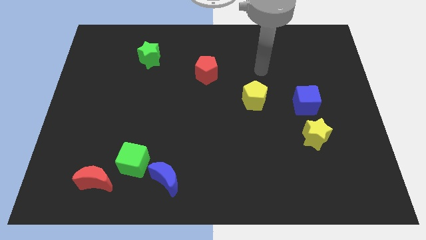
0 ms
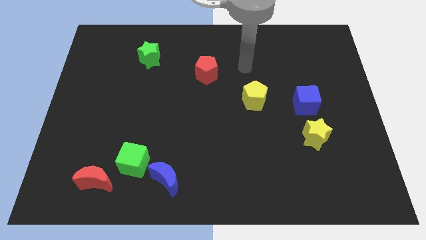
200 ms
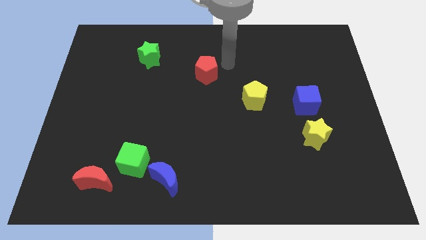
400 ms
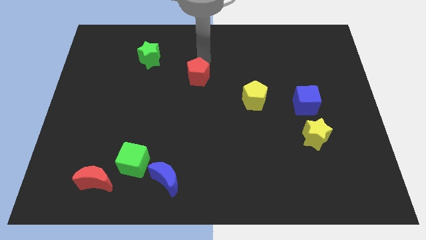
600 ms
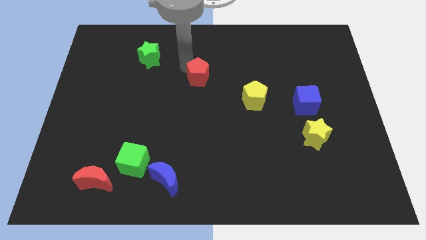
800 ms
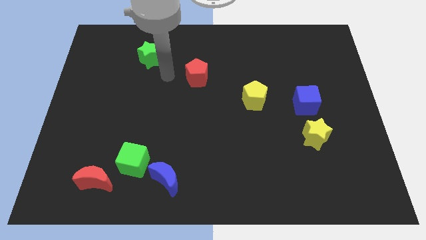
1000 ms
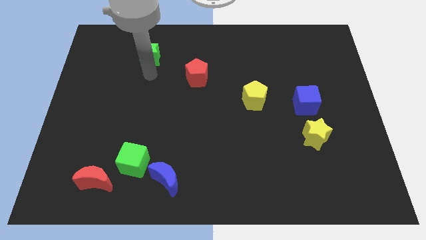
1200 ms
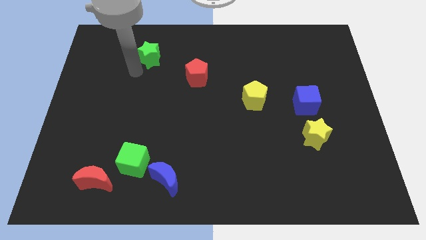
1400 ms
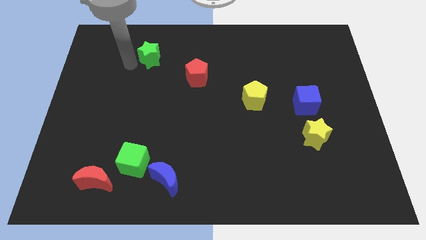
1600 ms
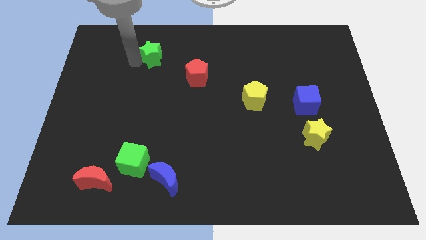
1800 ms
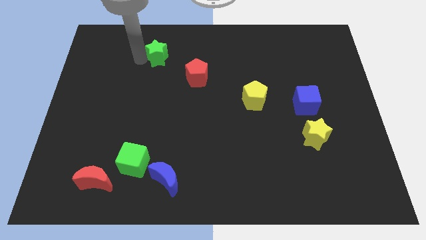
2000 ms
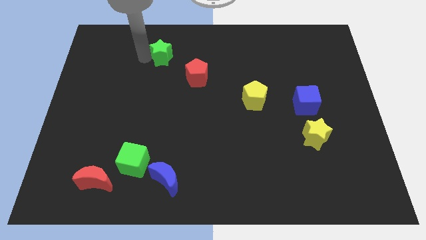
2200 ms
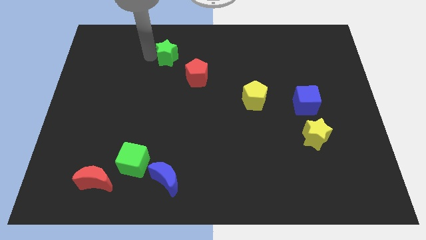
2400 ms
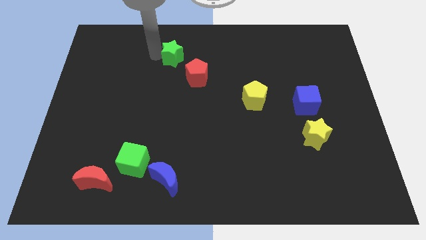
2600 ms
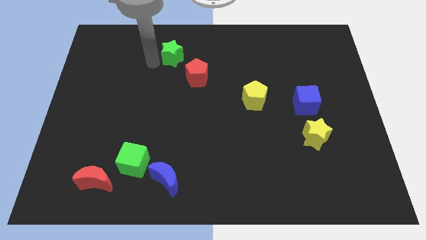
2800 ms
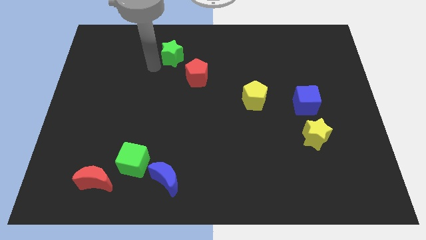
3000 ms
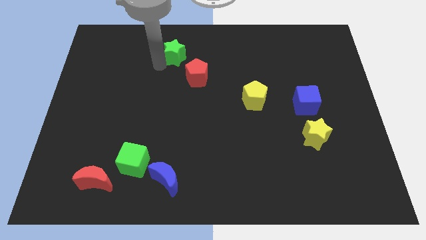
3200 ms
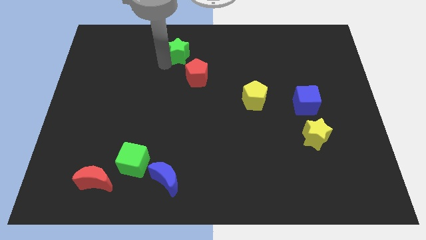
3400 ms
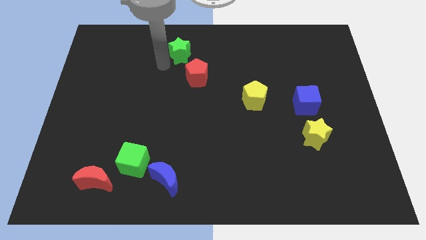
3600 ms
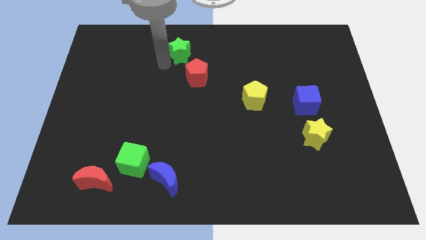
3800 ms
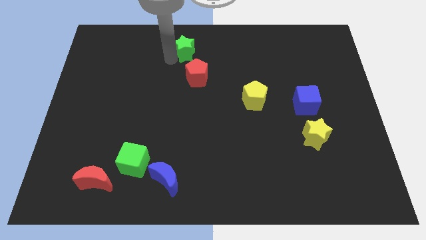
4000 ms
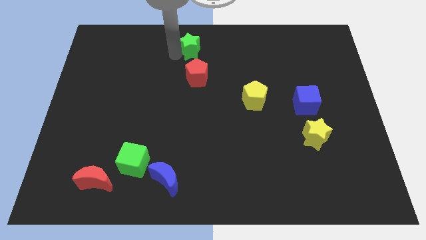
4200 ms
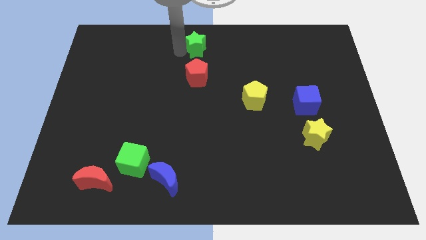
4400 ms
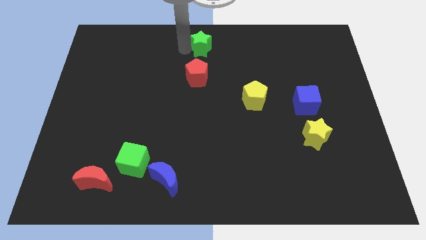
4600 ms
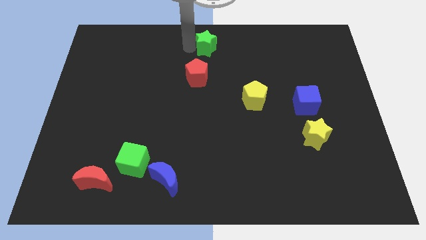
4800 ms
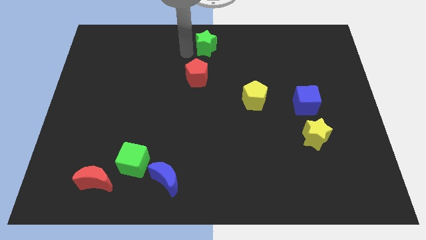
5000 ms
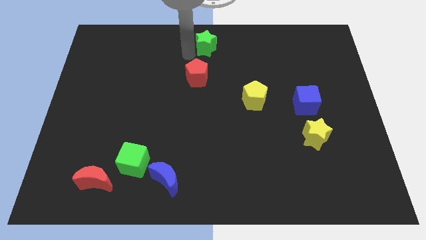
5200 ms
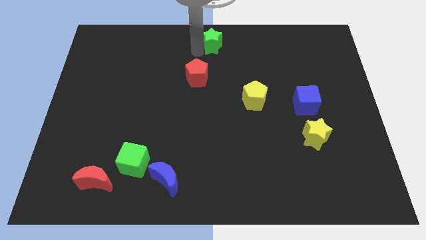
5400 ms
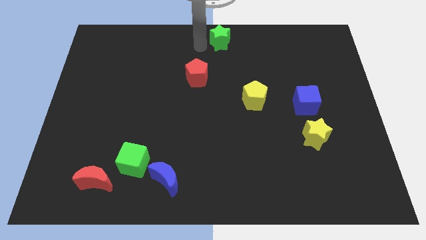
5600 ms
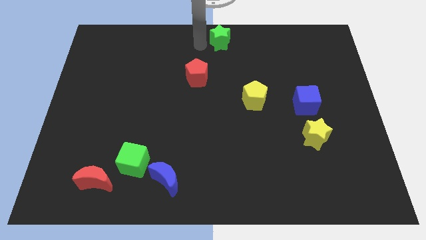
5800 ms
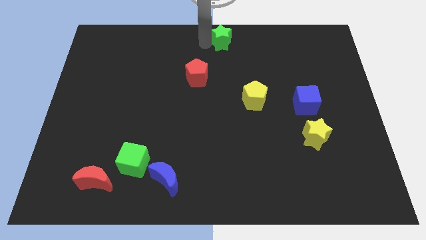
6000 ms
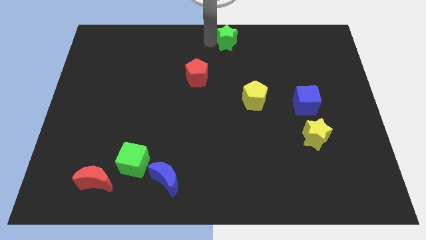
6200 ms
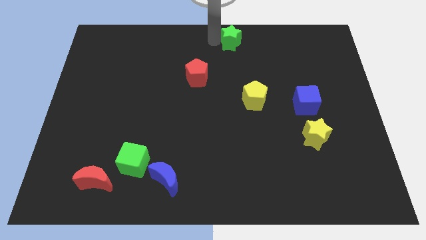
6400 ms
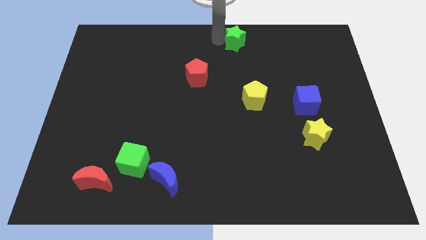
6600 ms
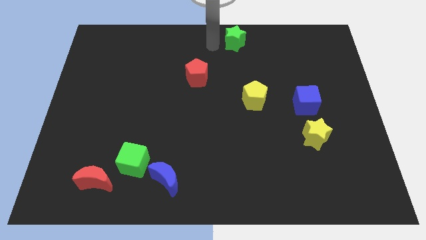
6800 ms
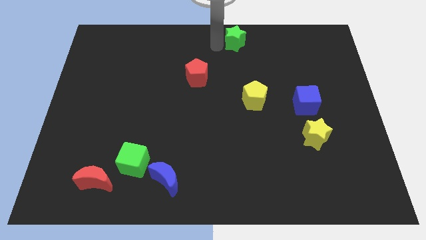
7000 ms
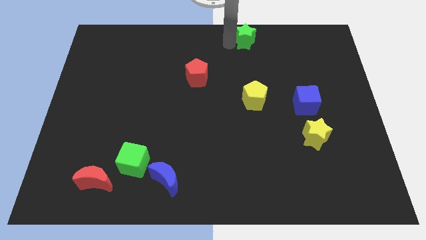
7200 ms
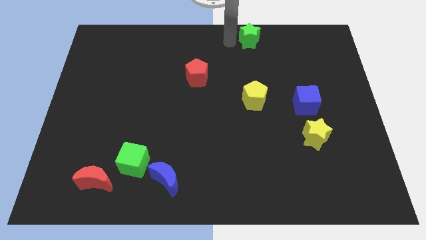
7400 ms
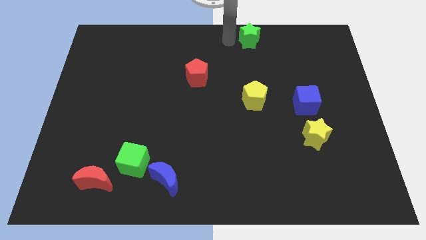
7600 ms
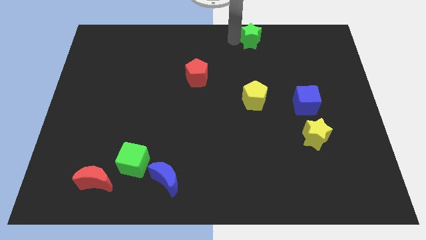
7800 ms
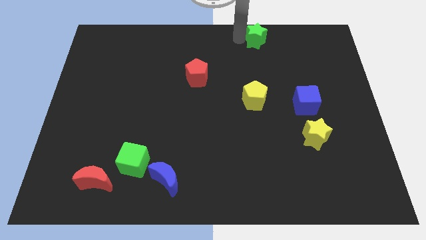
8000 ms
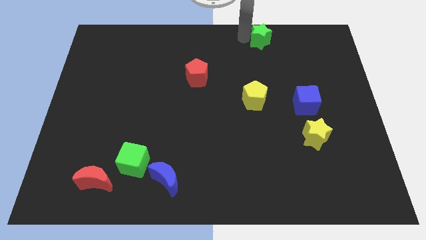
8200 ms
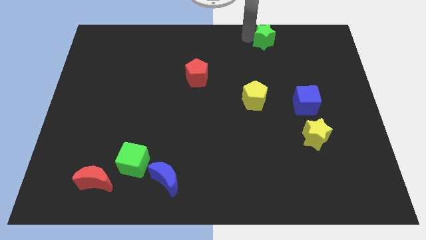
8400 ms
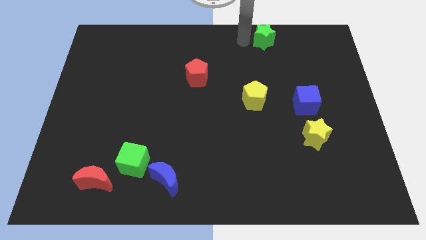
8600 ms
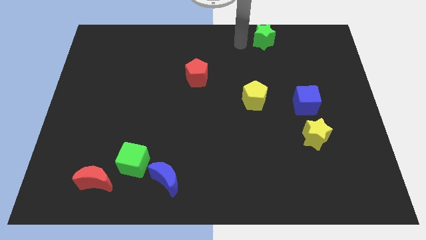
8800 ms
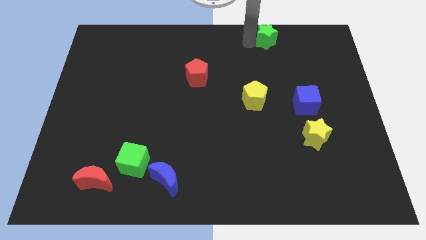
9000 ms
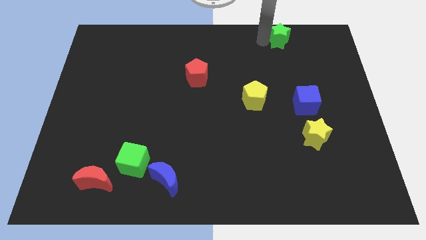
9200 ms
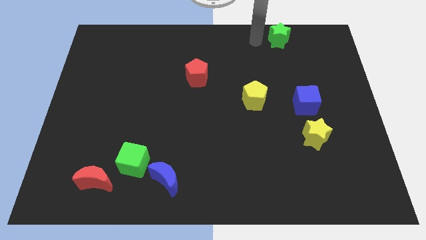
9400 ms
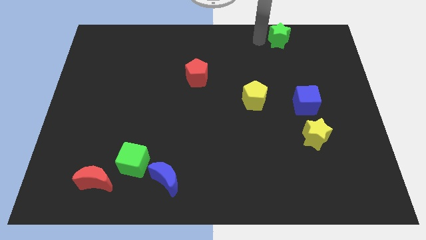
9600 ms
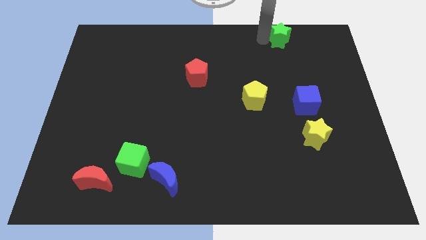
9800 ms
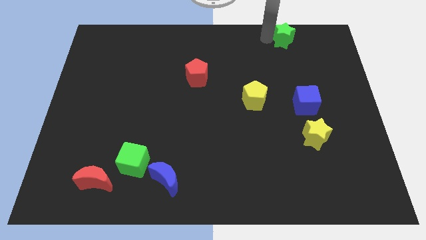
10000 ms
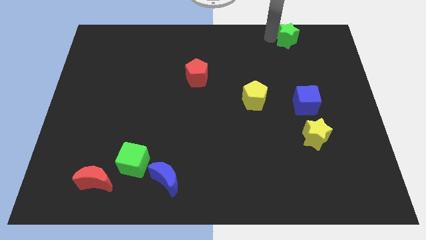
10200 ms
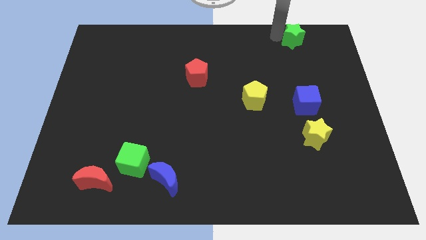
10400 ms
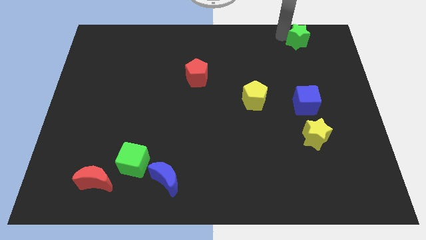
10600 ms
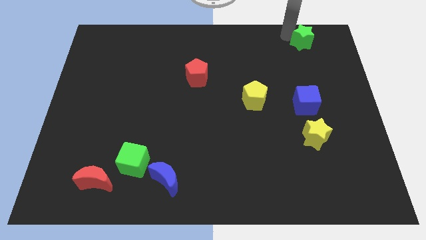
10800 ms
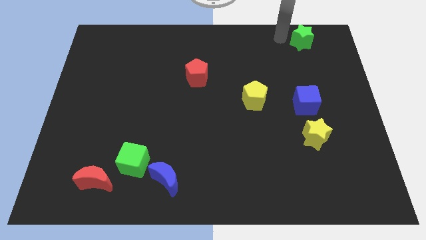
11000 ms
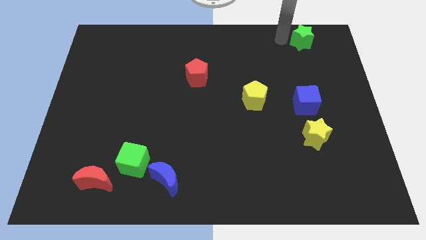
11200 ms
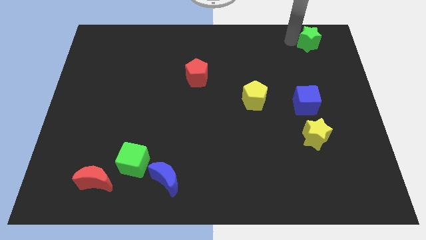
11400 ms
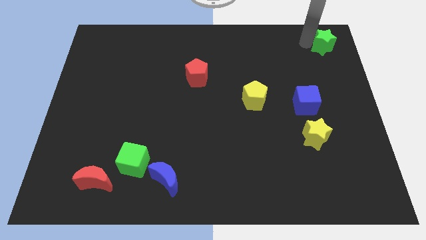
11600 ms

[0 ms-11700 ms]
push the green star to the top right
